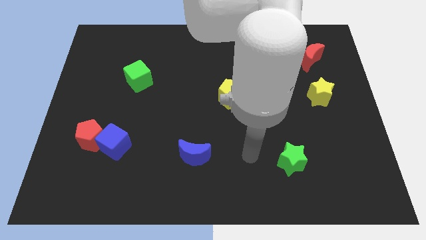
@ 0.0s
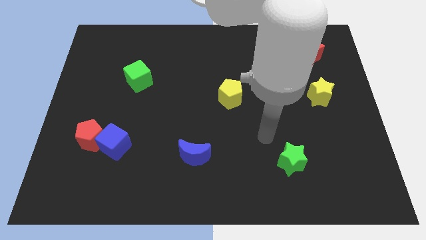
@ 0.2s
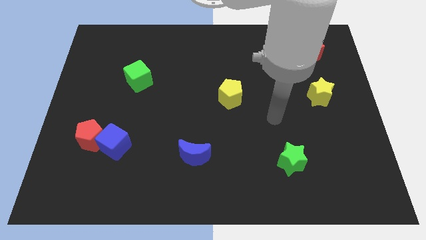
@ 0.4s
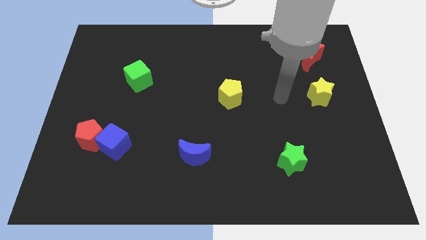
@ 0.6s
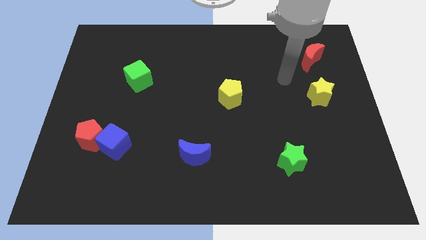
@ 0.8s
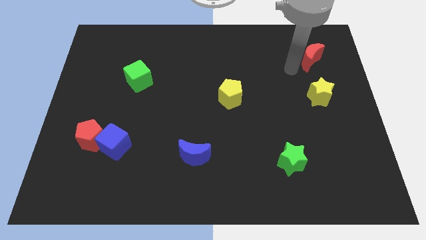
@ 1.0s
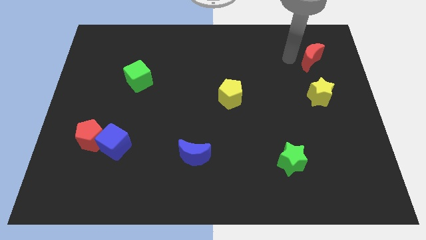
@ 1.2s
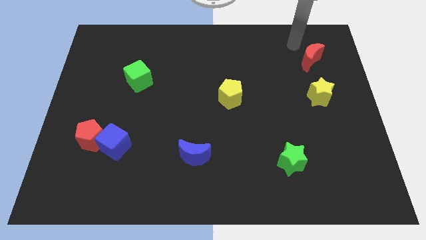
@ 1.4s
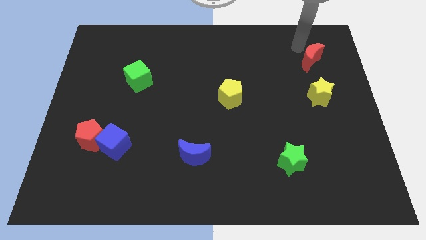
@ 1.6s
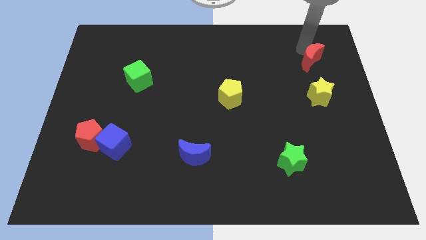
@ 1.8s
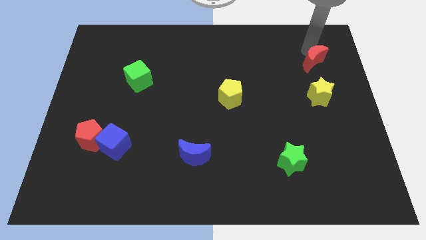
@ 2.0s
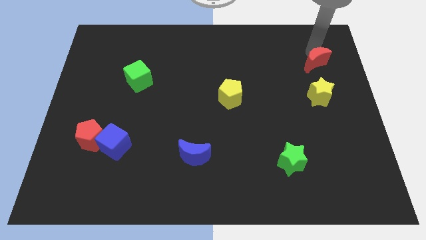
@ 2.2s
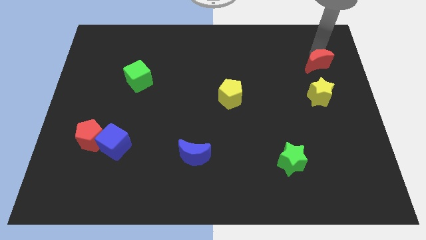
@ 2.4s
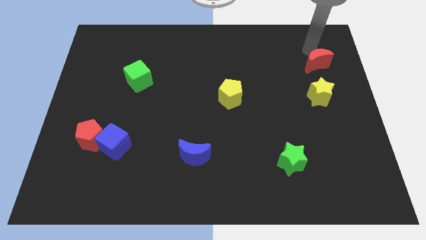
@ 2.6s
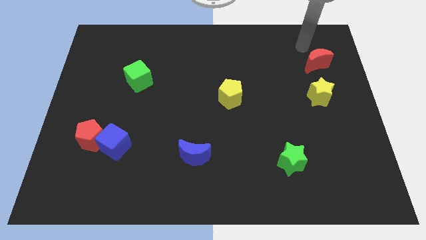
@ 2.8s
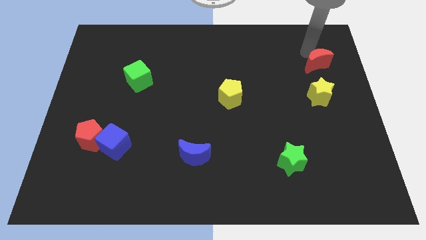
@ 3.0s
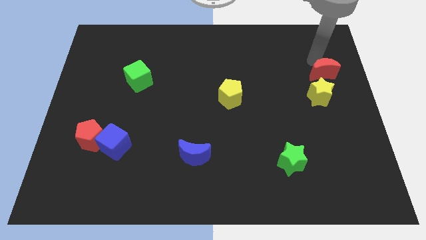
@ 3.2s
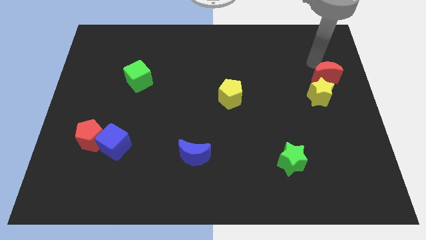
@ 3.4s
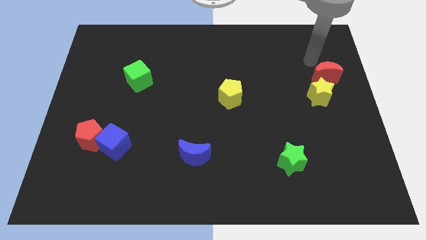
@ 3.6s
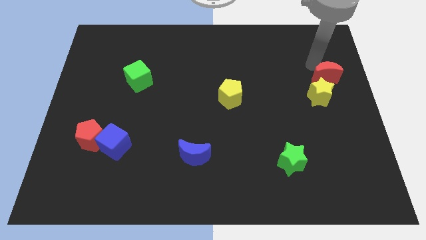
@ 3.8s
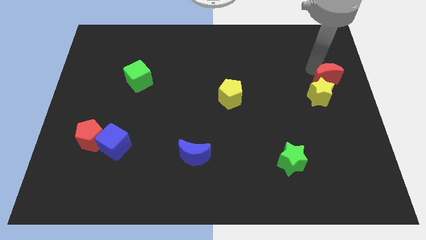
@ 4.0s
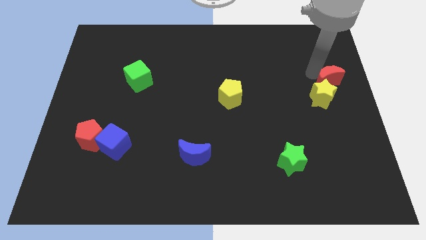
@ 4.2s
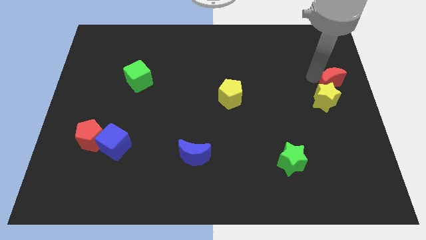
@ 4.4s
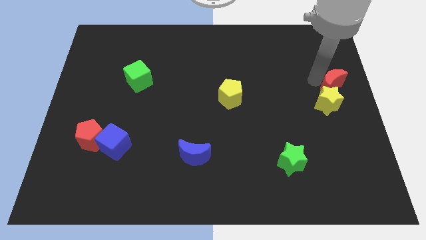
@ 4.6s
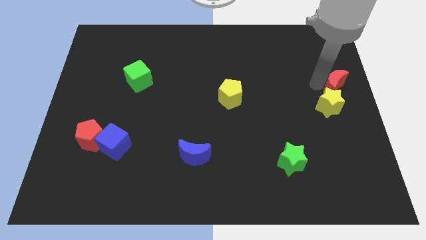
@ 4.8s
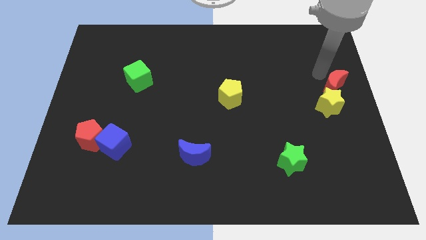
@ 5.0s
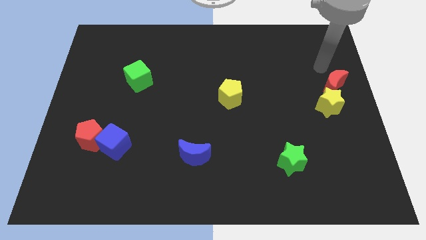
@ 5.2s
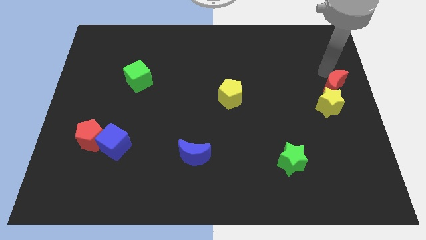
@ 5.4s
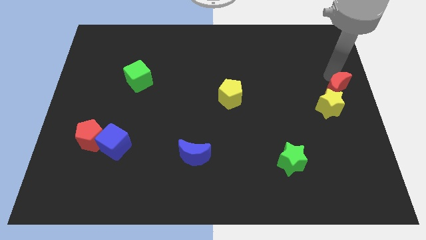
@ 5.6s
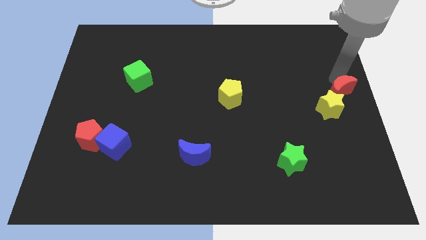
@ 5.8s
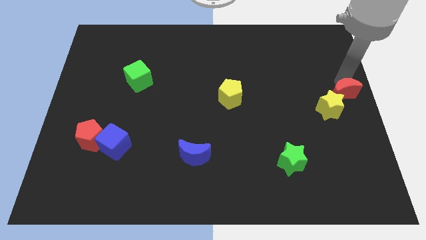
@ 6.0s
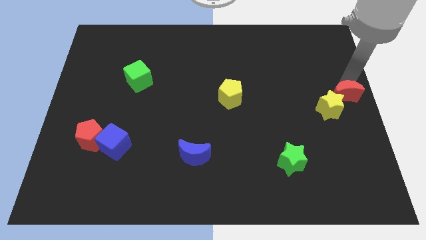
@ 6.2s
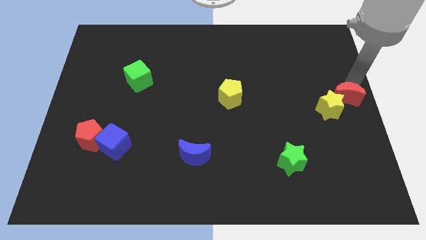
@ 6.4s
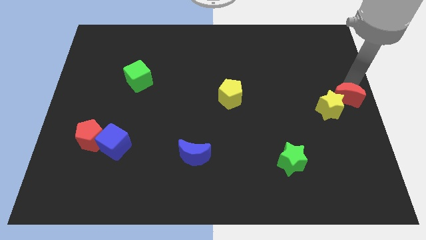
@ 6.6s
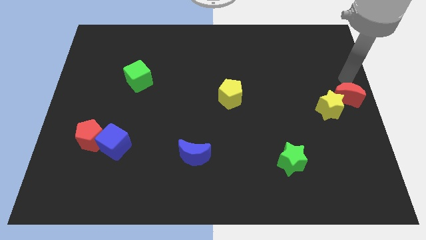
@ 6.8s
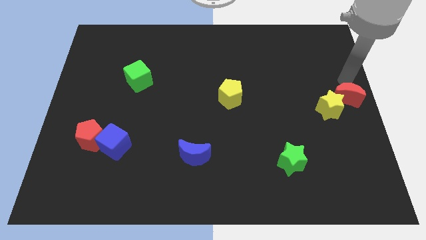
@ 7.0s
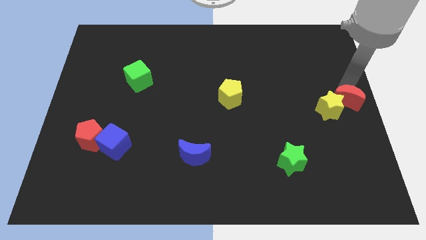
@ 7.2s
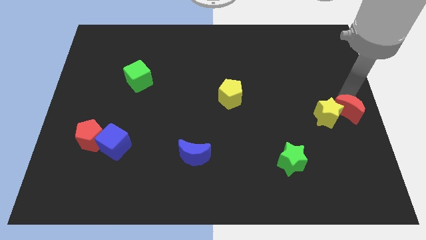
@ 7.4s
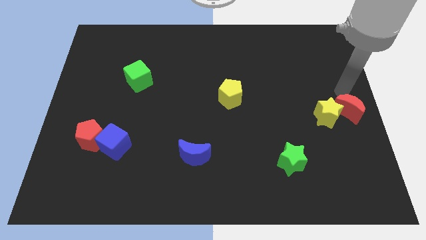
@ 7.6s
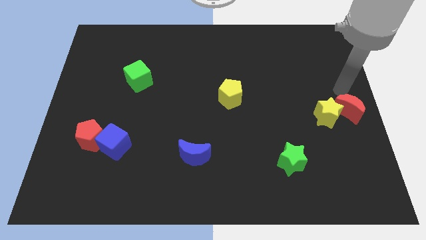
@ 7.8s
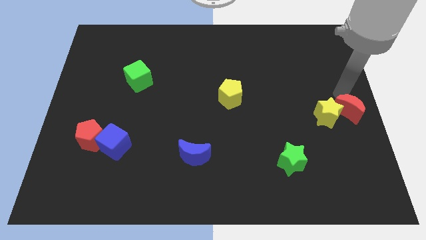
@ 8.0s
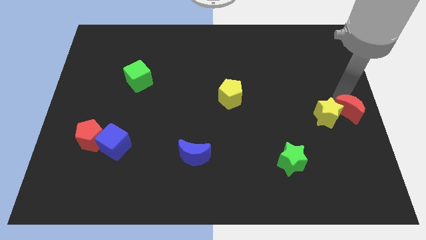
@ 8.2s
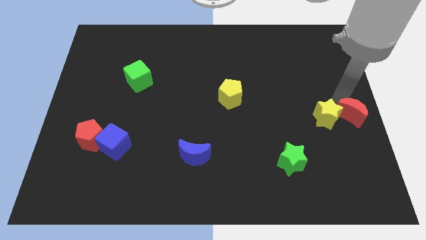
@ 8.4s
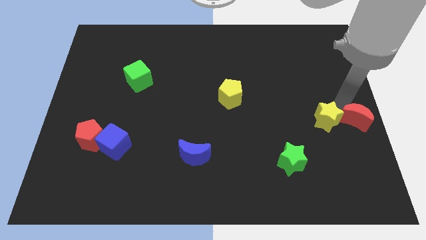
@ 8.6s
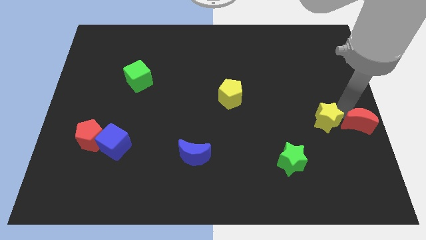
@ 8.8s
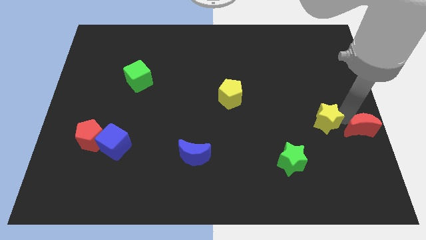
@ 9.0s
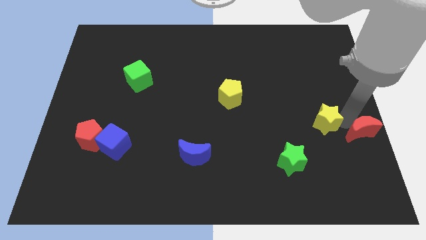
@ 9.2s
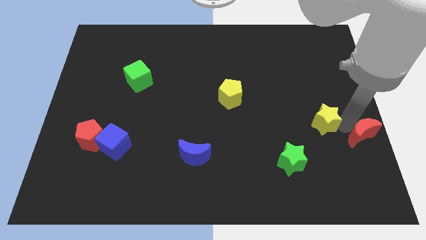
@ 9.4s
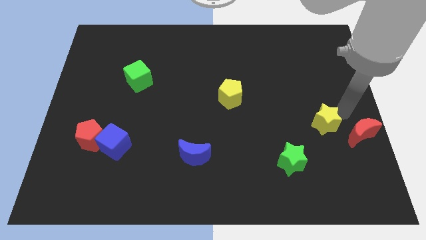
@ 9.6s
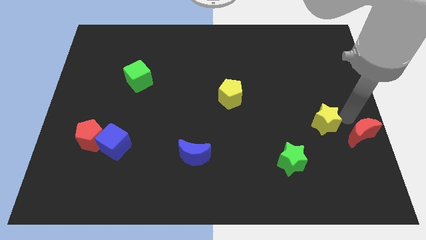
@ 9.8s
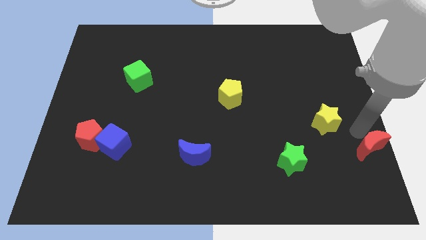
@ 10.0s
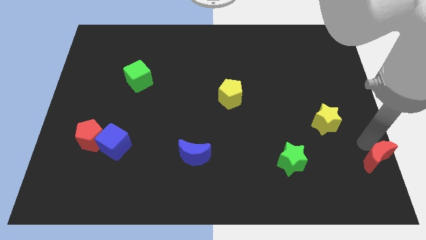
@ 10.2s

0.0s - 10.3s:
move the red moon to the bottom right of the board
